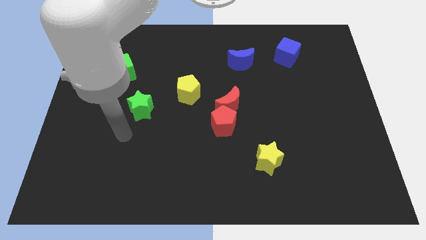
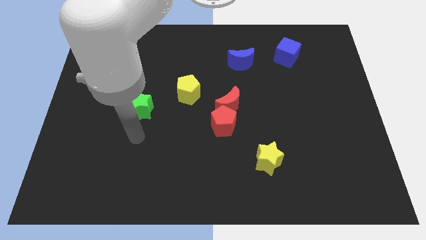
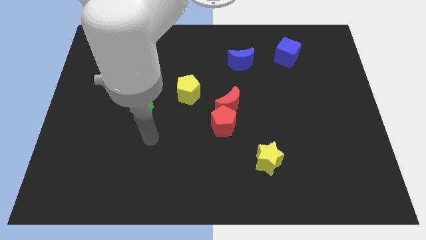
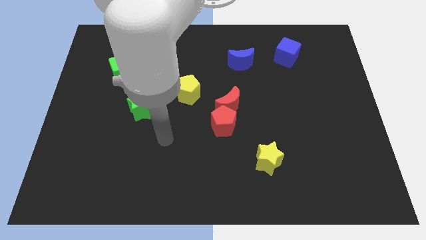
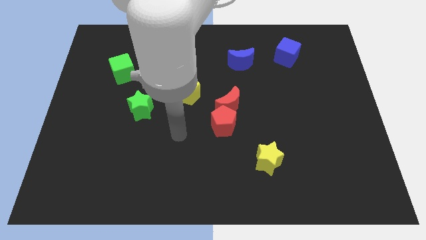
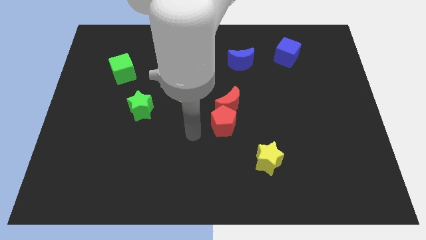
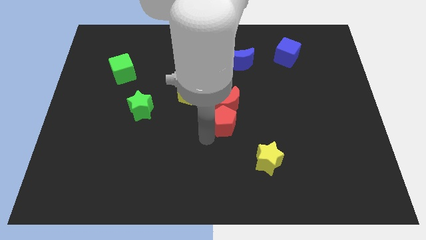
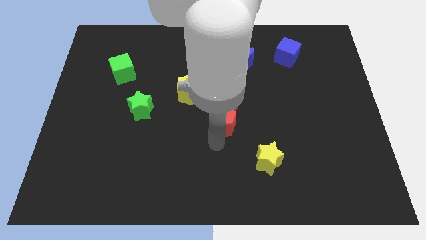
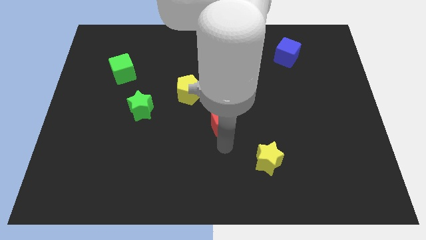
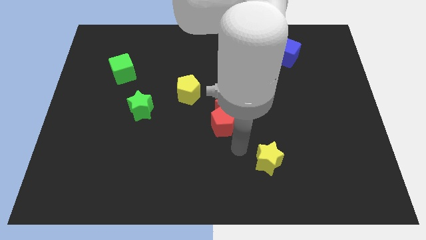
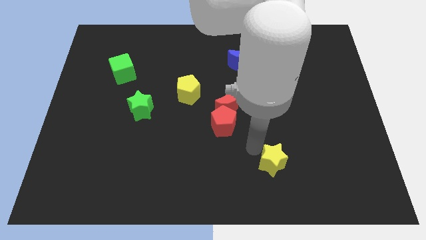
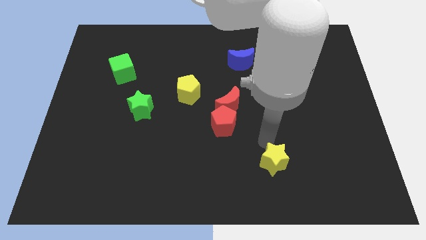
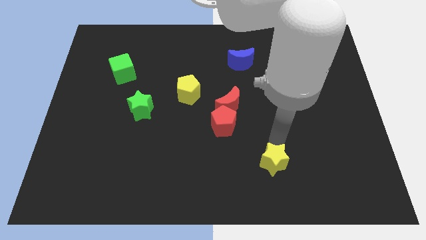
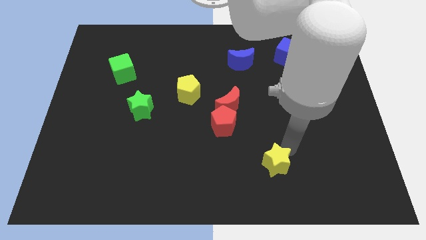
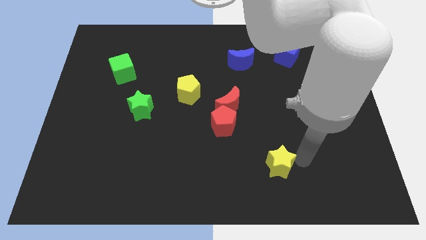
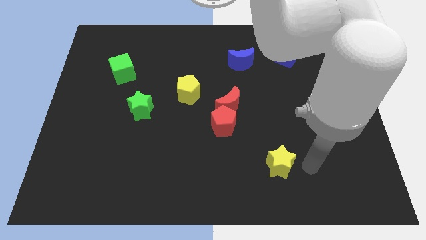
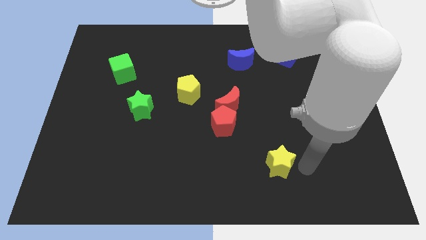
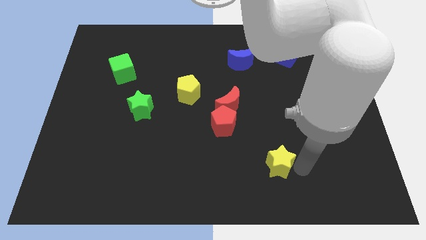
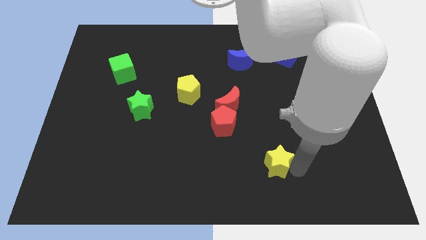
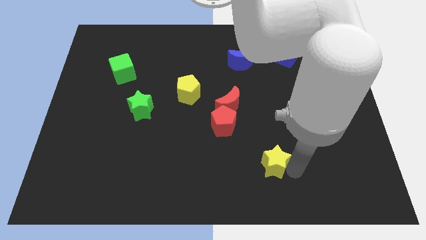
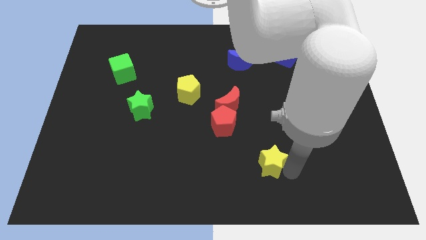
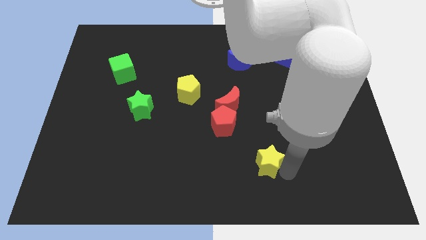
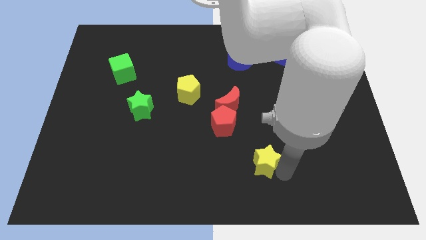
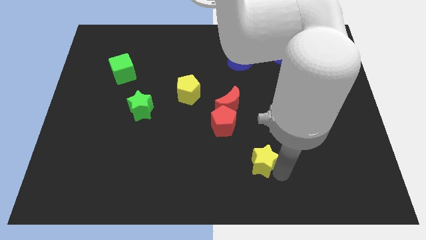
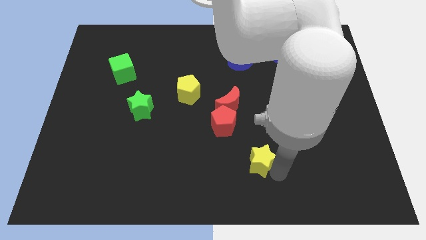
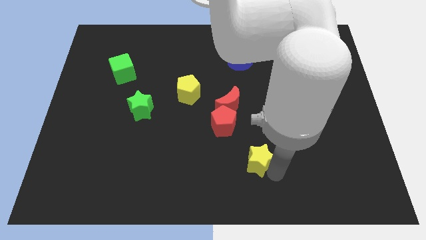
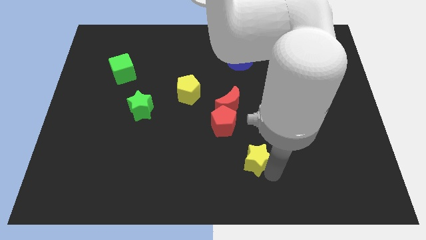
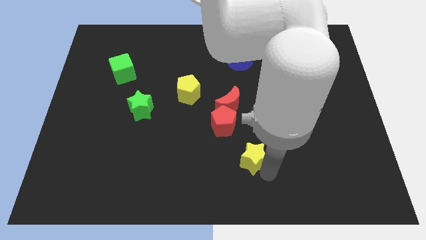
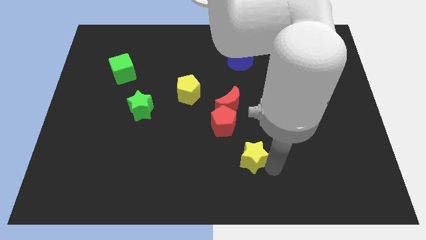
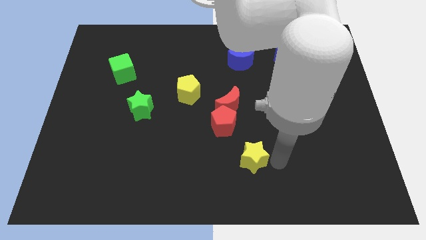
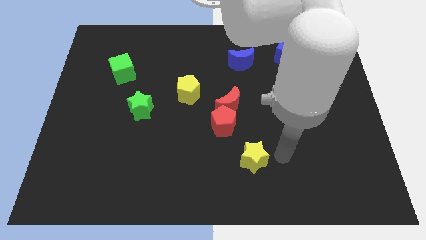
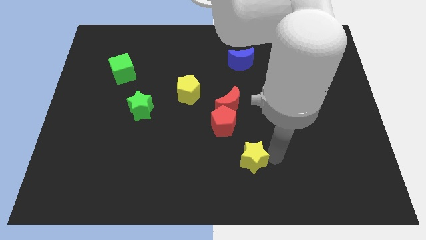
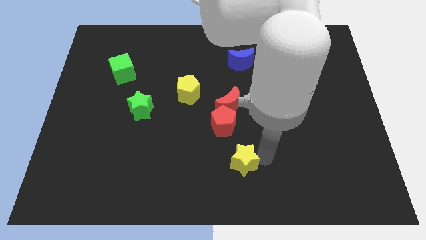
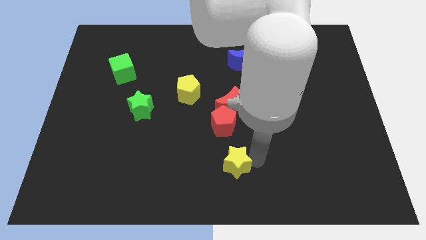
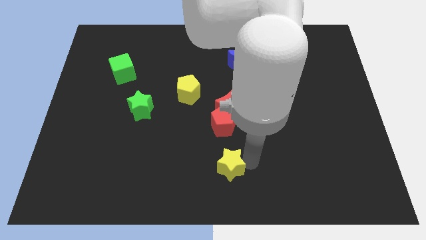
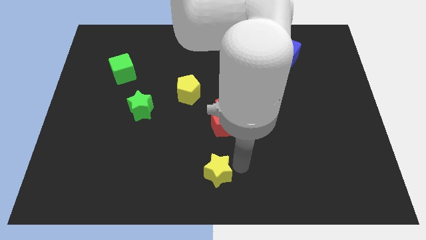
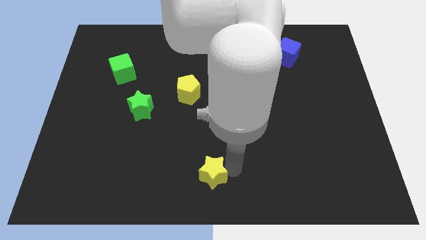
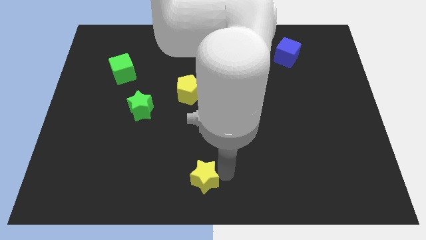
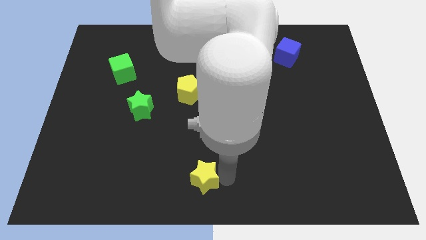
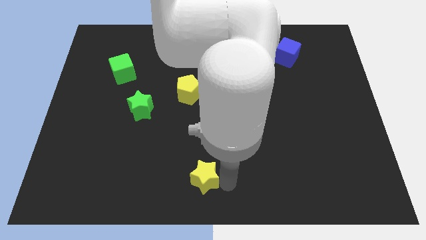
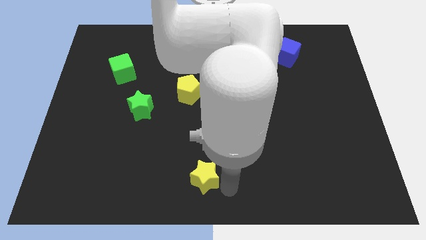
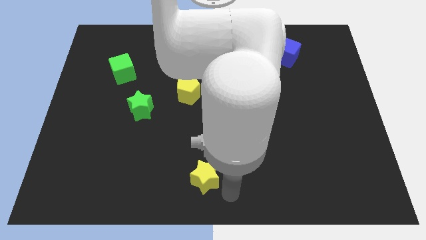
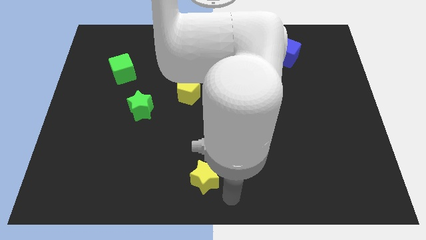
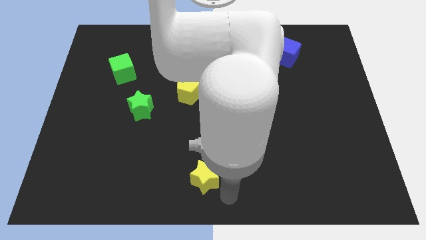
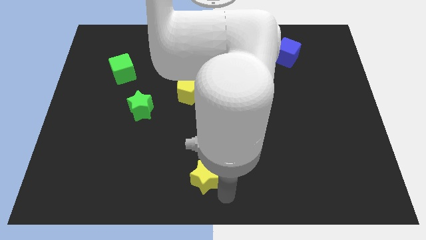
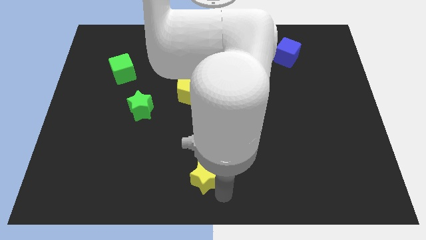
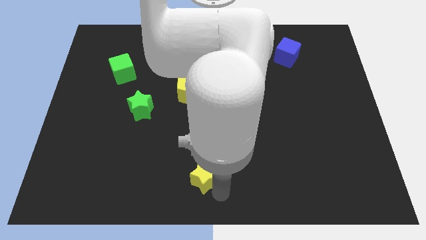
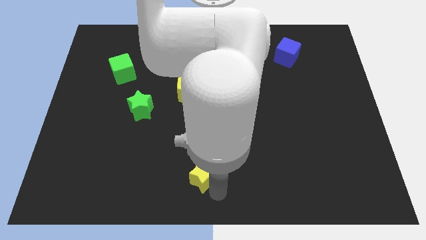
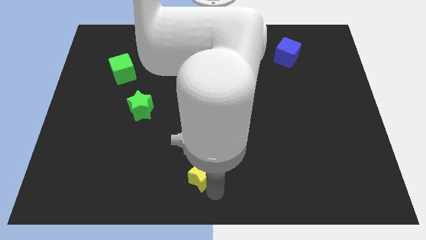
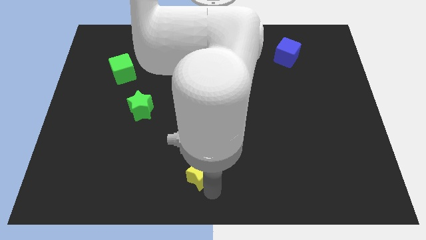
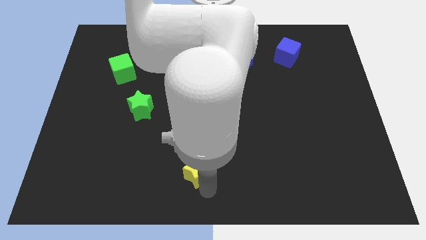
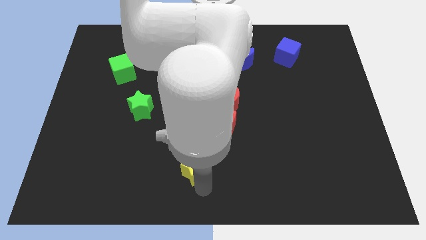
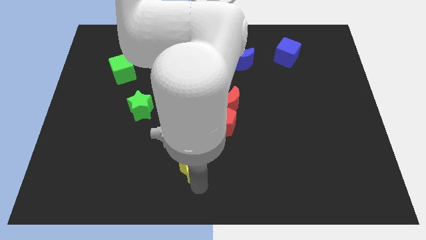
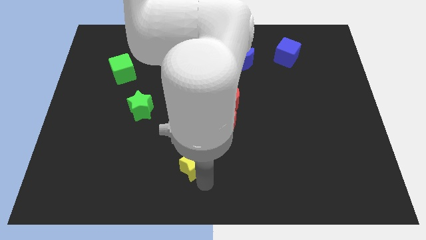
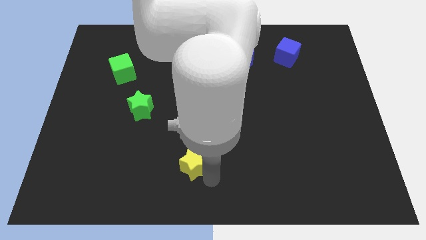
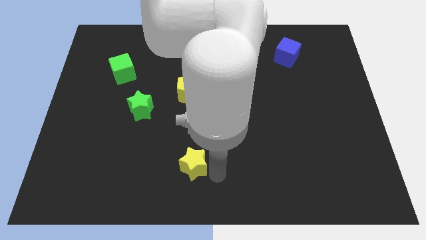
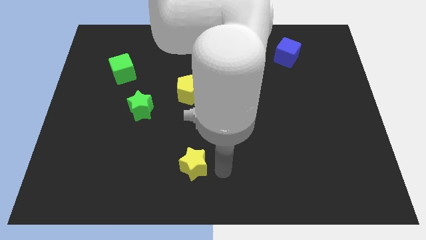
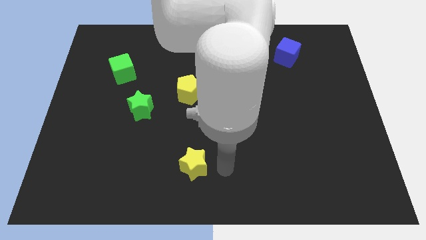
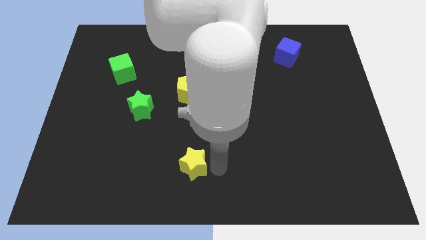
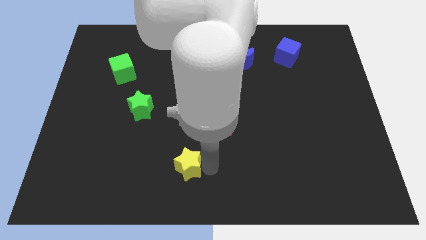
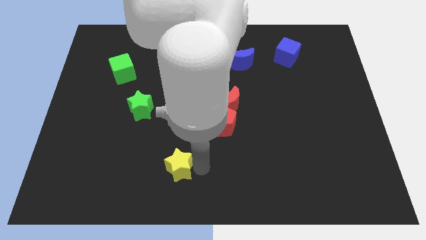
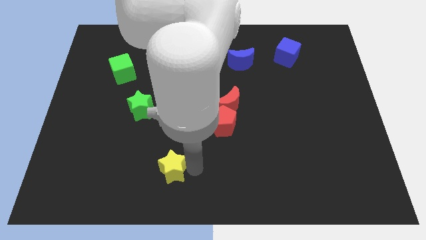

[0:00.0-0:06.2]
move the yellow star to the left

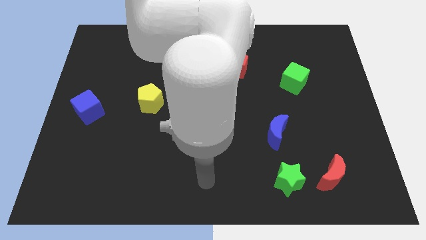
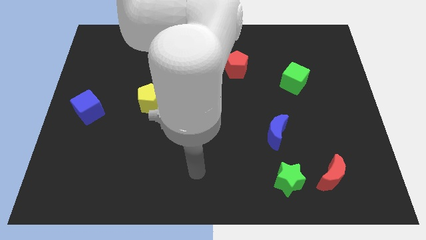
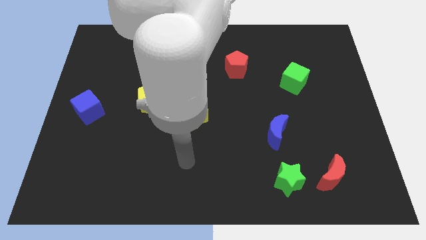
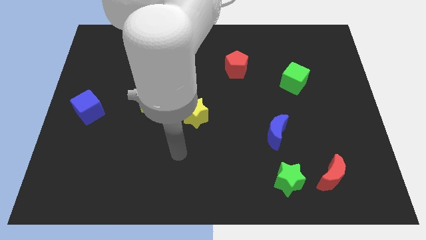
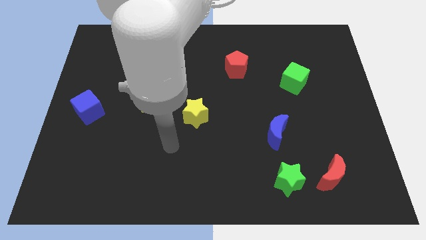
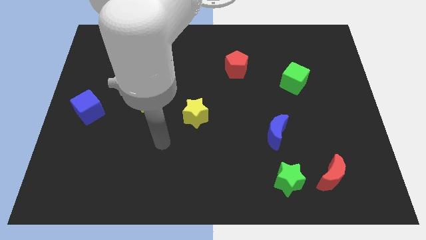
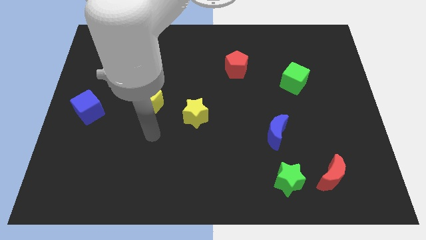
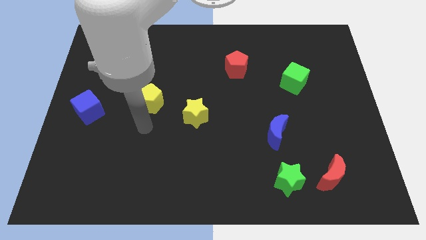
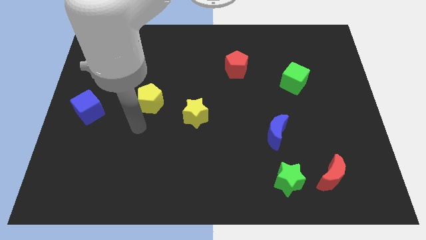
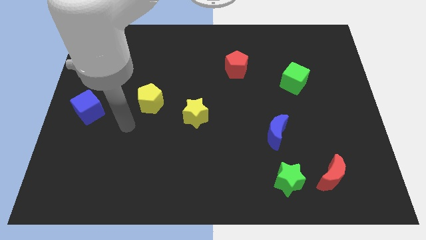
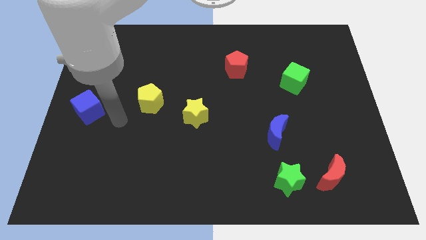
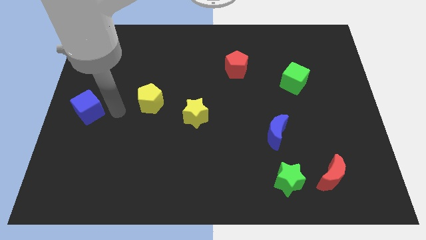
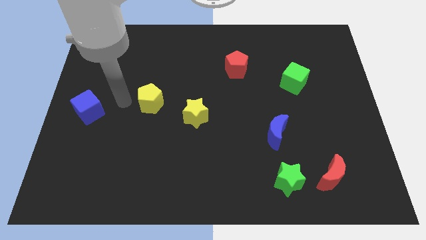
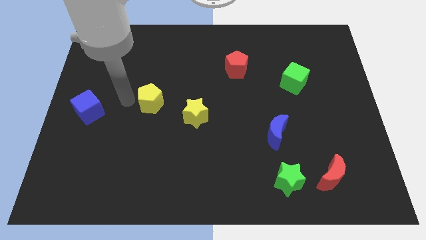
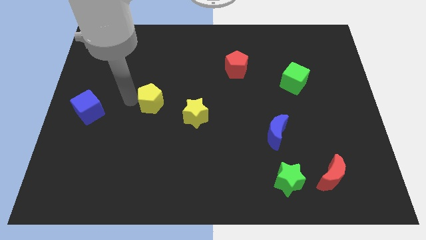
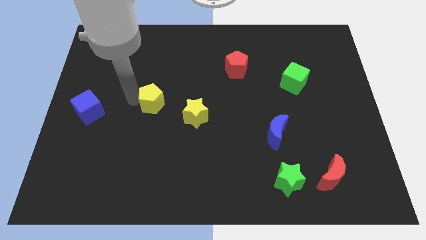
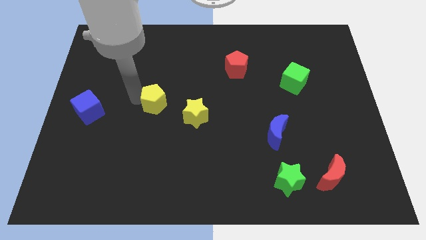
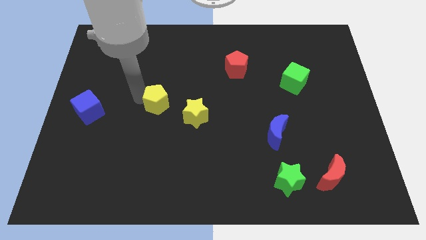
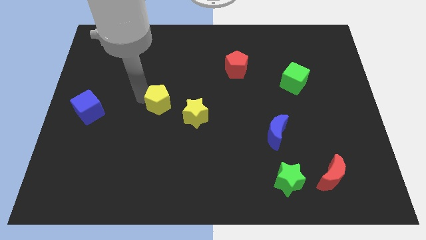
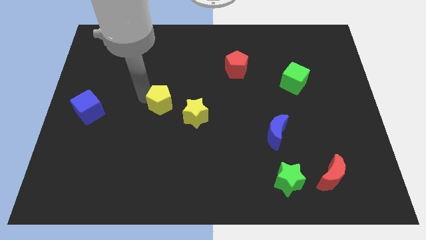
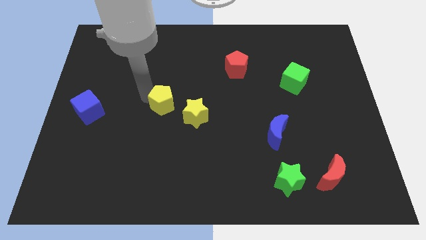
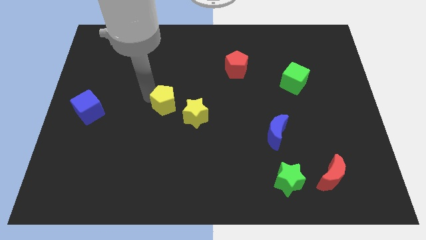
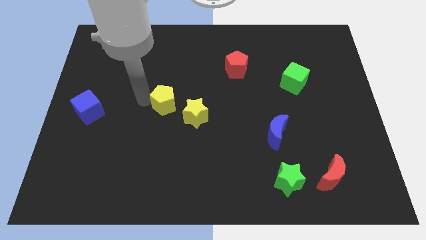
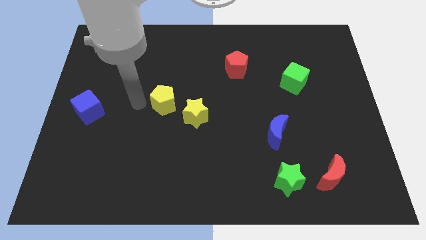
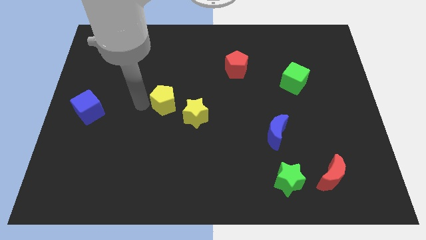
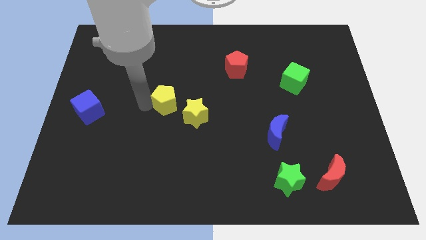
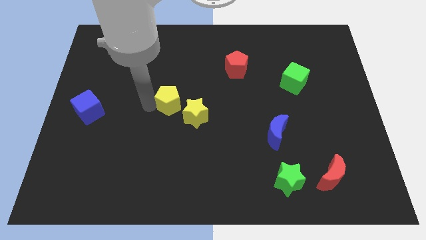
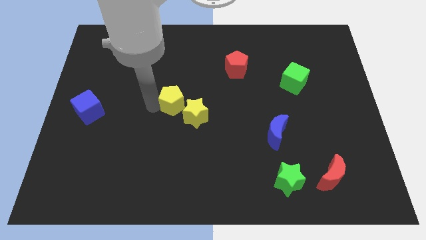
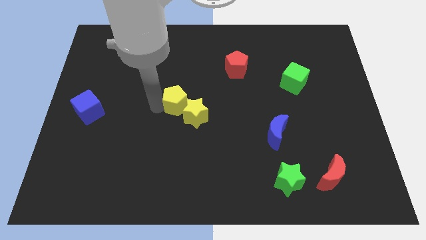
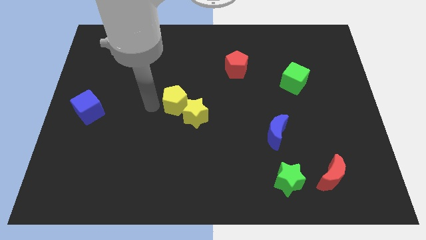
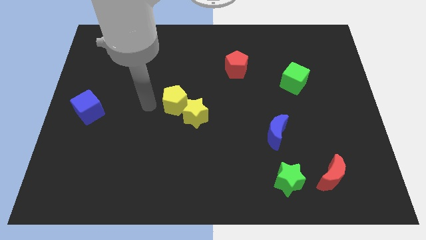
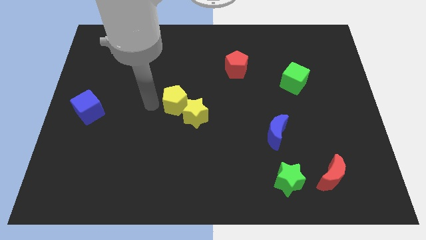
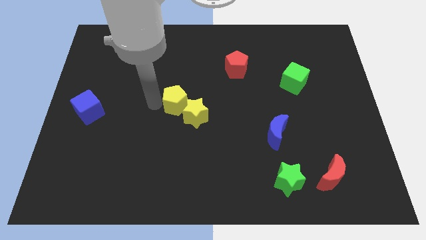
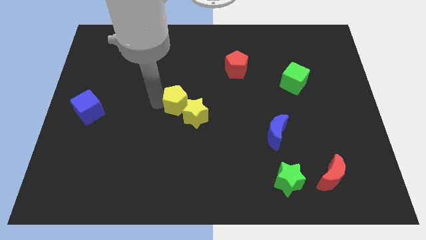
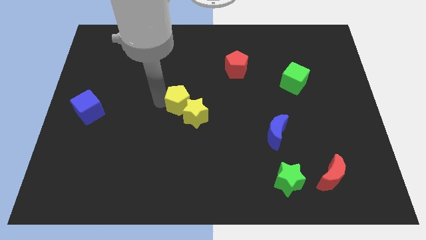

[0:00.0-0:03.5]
slightly move the yellow pentagon to the right
